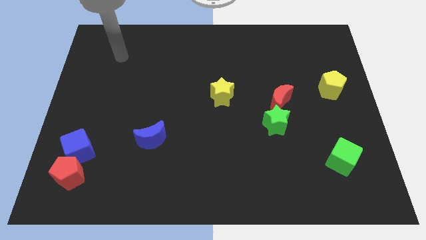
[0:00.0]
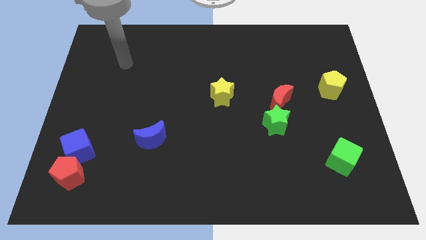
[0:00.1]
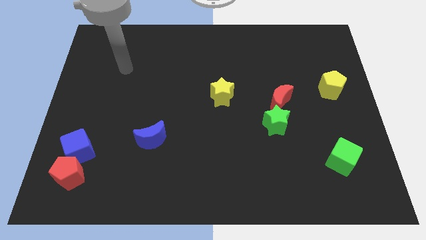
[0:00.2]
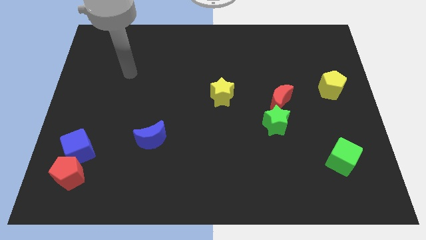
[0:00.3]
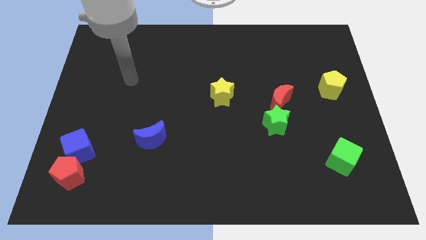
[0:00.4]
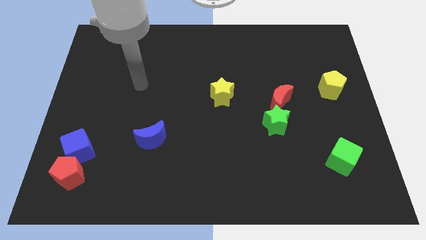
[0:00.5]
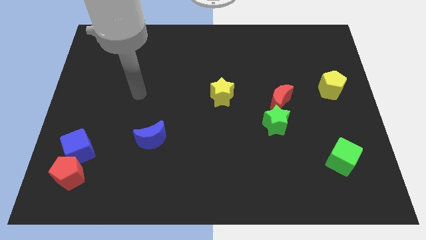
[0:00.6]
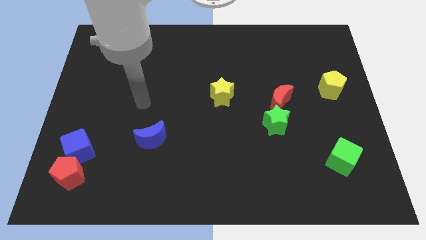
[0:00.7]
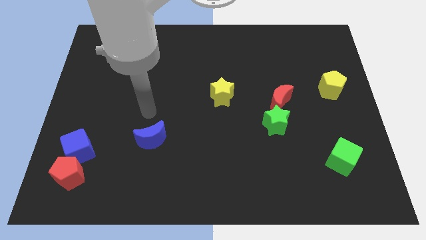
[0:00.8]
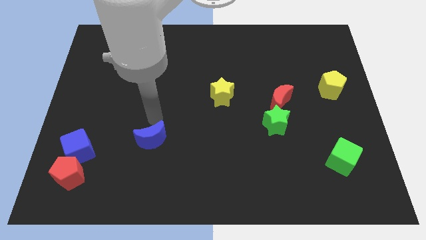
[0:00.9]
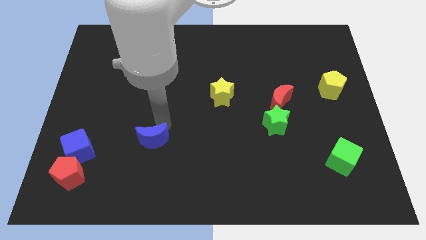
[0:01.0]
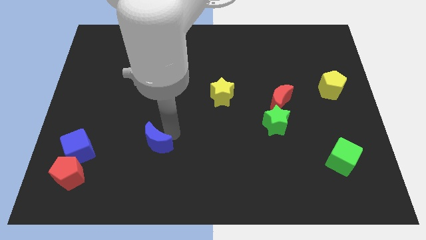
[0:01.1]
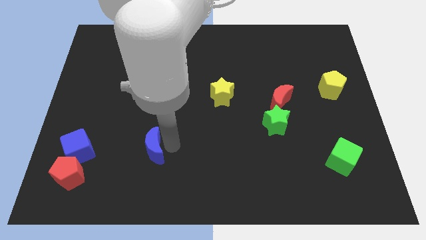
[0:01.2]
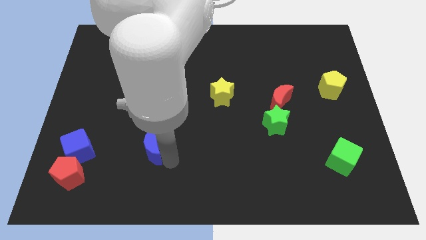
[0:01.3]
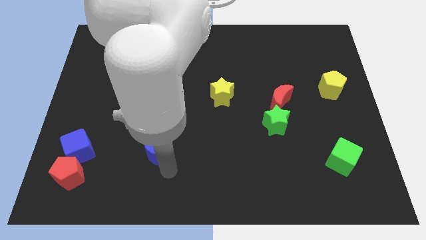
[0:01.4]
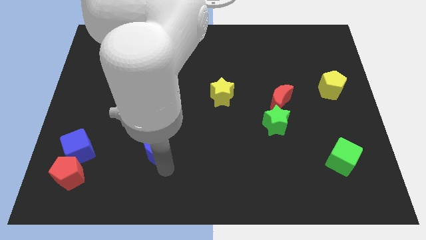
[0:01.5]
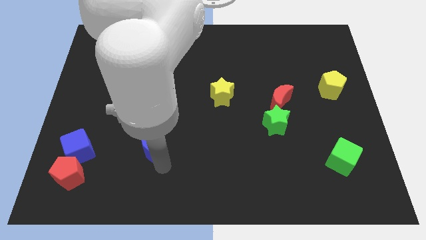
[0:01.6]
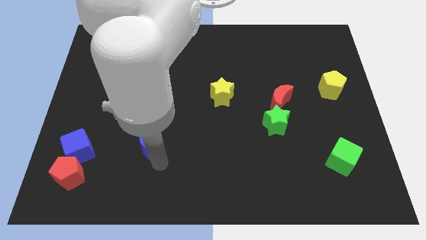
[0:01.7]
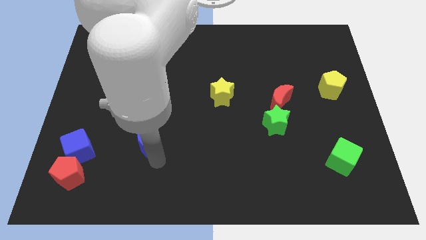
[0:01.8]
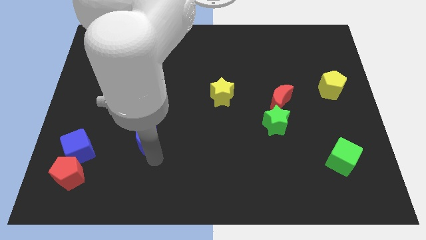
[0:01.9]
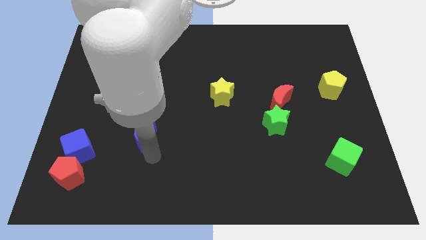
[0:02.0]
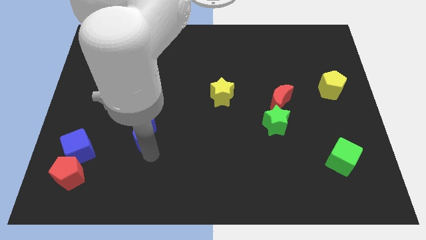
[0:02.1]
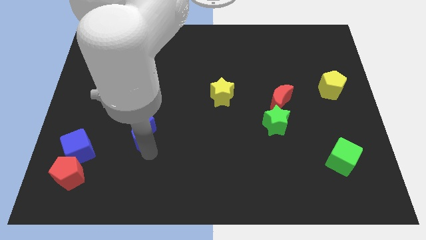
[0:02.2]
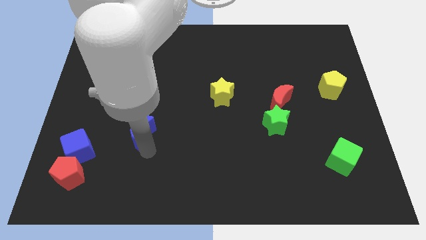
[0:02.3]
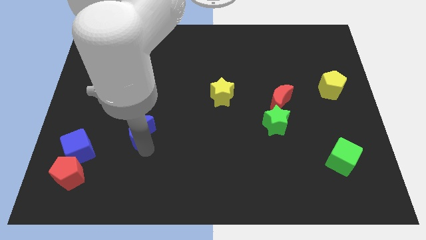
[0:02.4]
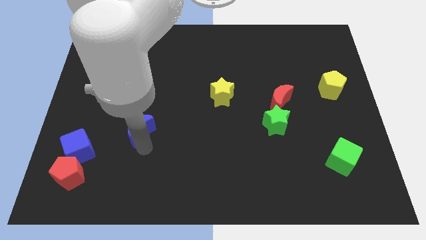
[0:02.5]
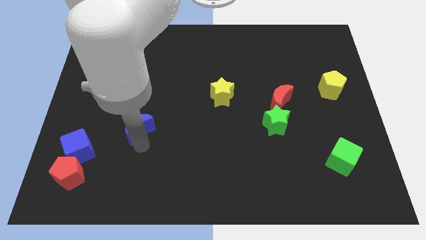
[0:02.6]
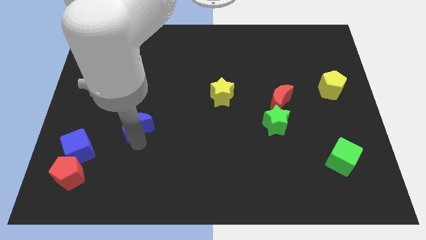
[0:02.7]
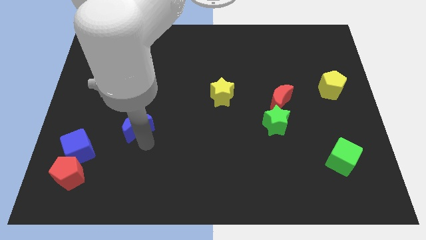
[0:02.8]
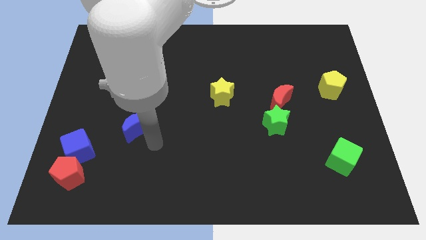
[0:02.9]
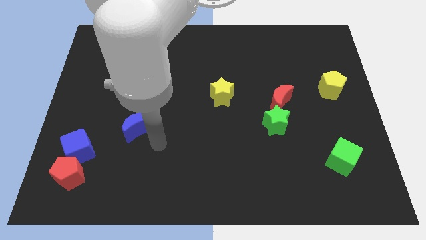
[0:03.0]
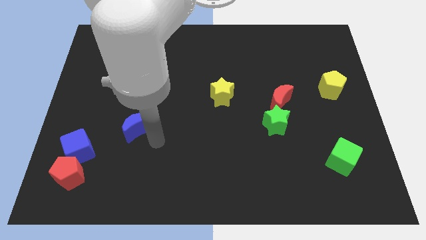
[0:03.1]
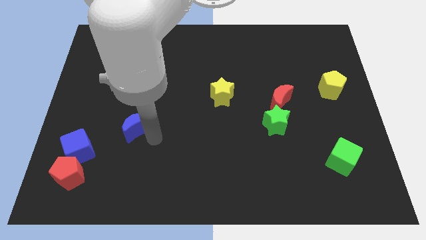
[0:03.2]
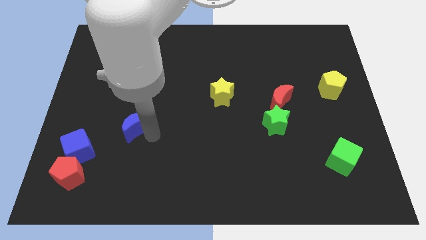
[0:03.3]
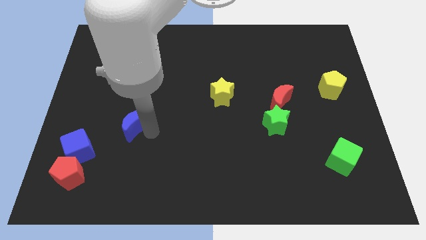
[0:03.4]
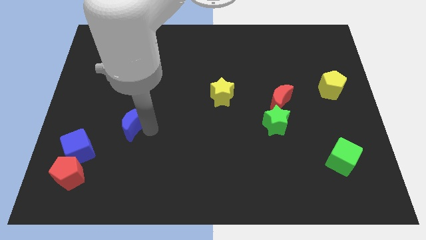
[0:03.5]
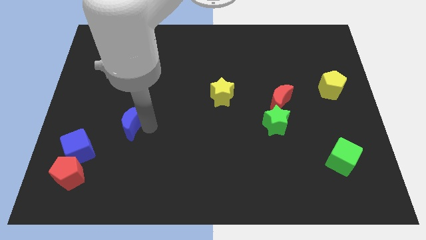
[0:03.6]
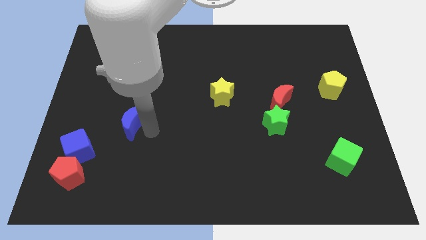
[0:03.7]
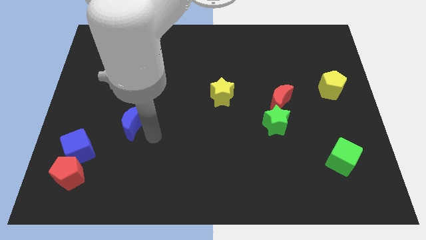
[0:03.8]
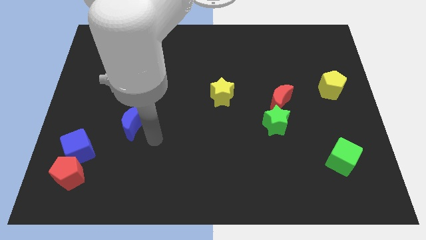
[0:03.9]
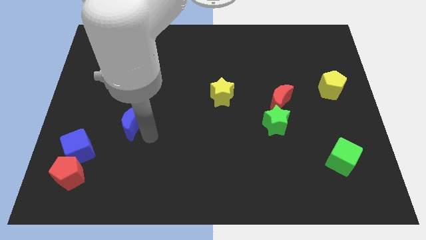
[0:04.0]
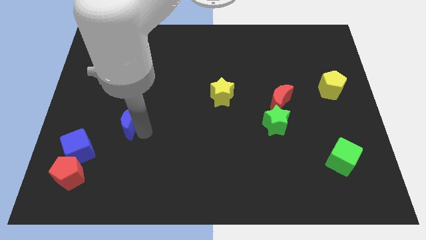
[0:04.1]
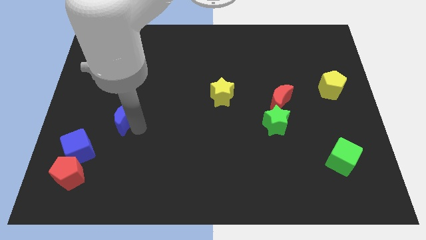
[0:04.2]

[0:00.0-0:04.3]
slightly move the blue moon diagonally upwards and left

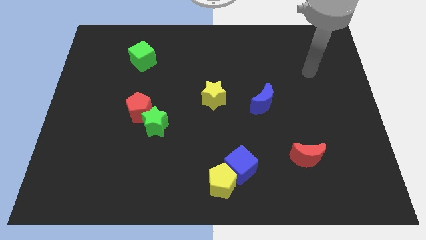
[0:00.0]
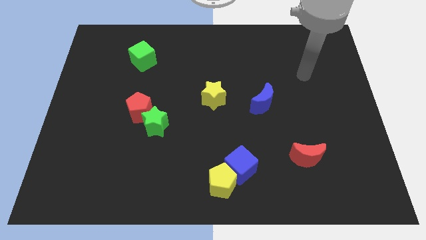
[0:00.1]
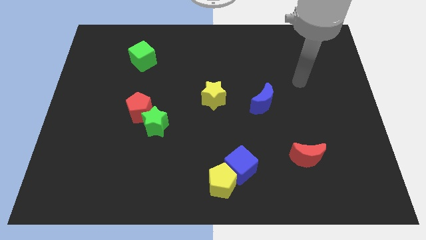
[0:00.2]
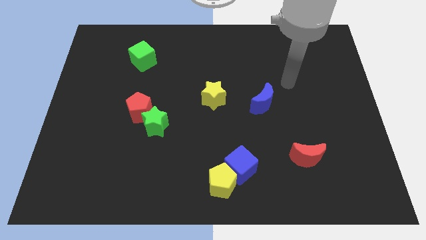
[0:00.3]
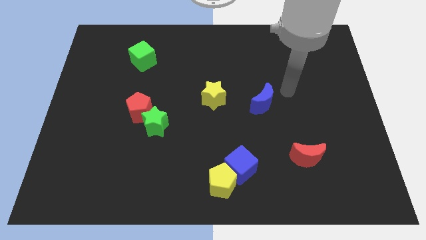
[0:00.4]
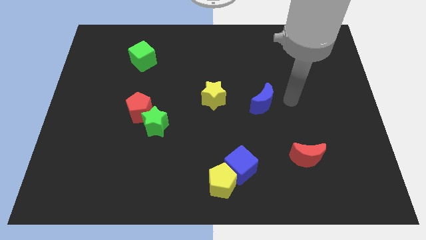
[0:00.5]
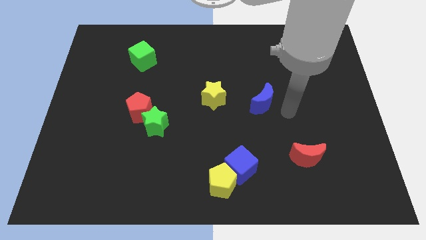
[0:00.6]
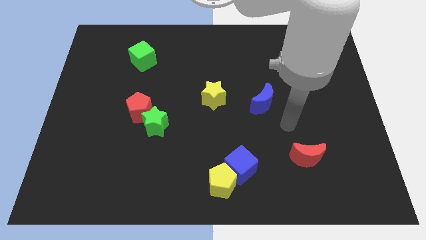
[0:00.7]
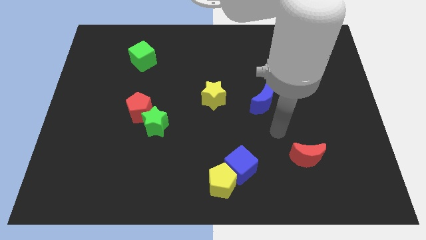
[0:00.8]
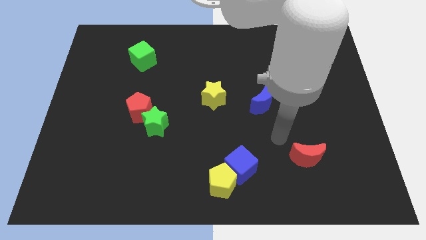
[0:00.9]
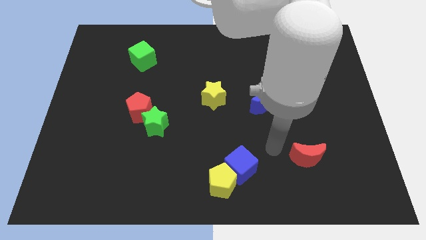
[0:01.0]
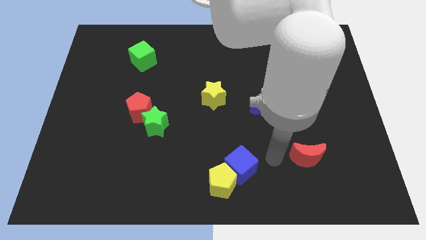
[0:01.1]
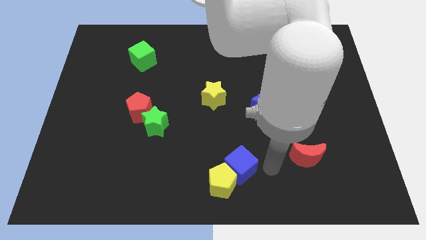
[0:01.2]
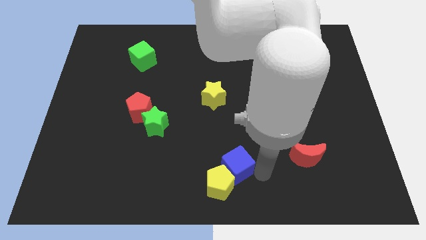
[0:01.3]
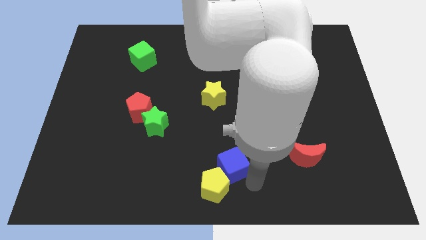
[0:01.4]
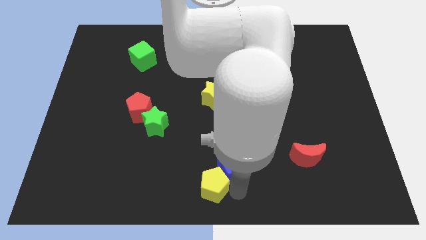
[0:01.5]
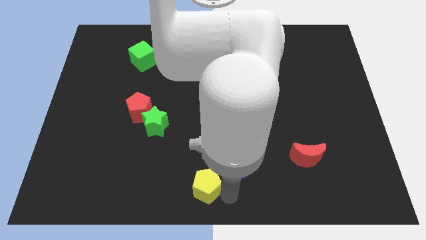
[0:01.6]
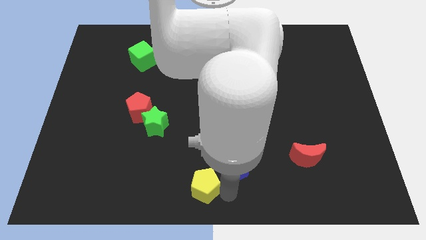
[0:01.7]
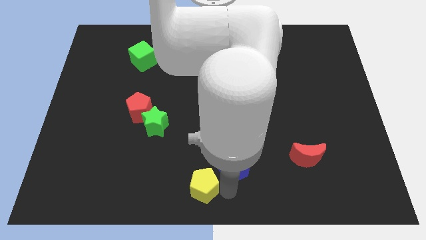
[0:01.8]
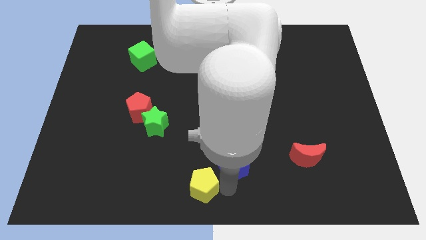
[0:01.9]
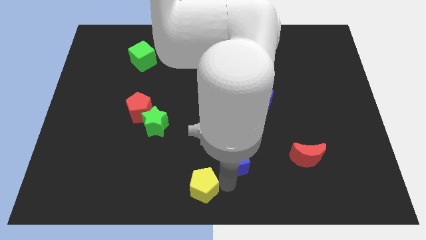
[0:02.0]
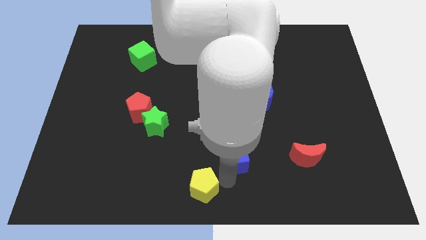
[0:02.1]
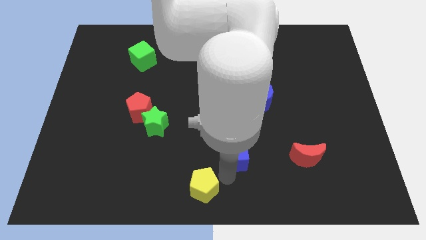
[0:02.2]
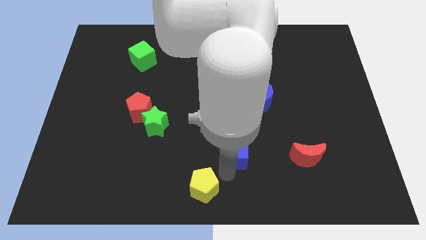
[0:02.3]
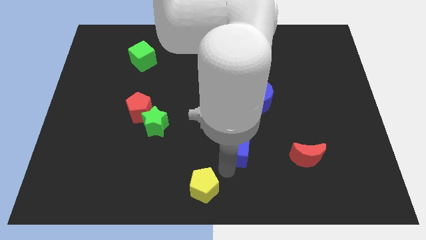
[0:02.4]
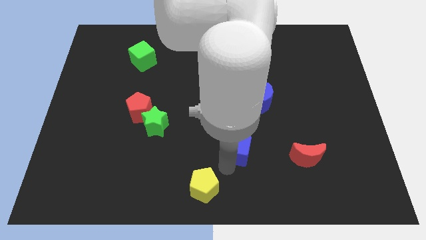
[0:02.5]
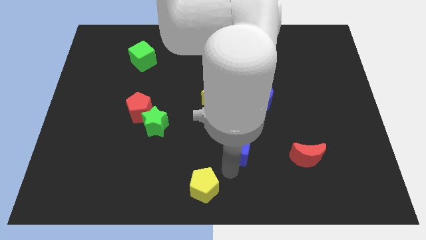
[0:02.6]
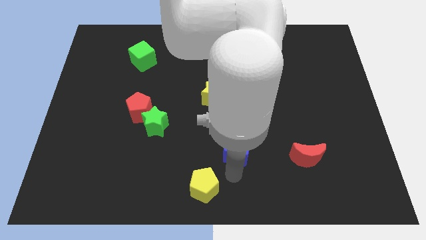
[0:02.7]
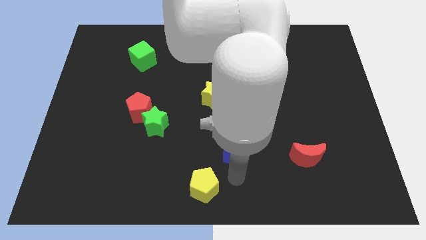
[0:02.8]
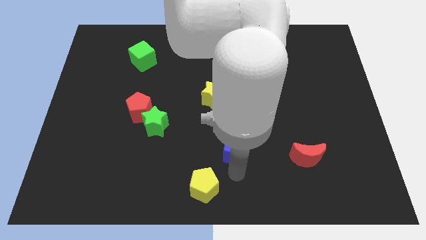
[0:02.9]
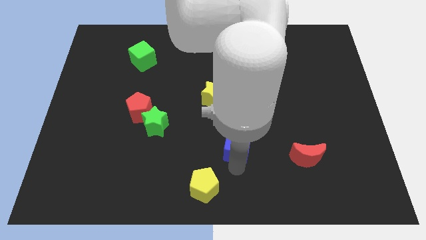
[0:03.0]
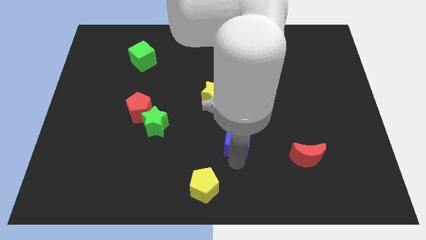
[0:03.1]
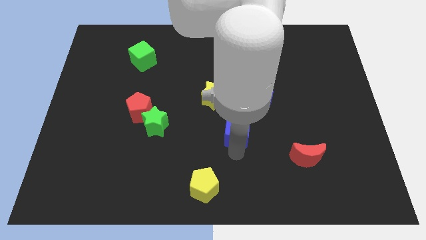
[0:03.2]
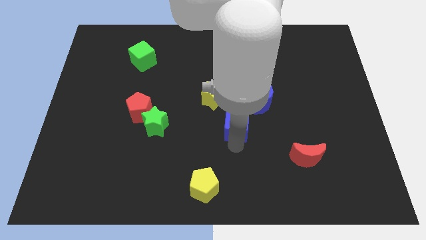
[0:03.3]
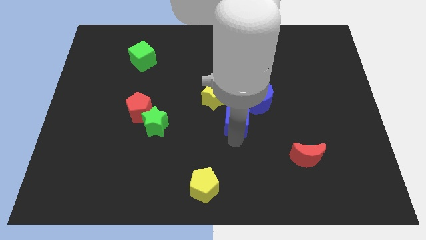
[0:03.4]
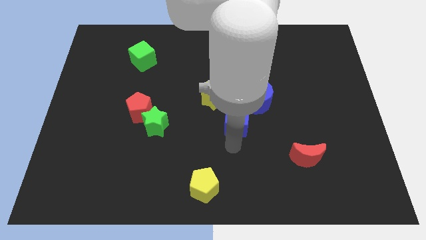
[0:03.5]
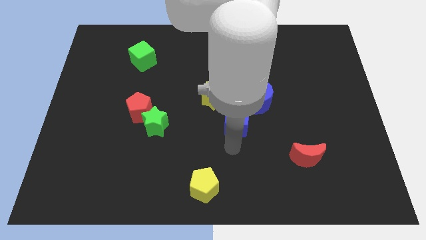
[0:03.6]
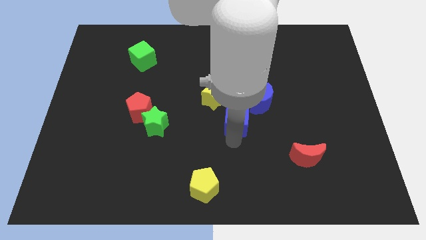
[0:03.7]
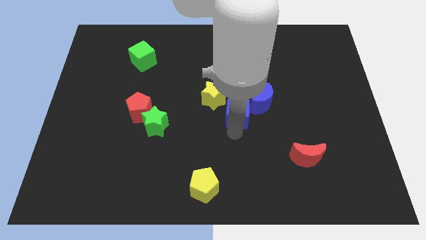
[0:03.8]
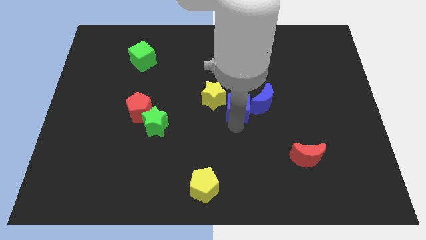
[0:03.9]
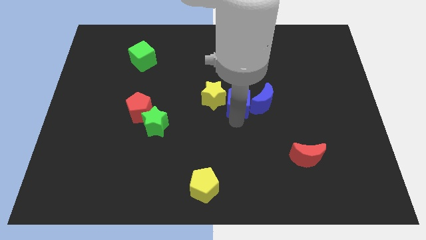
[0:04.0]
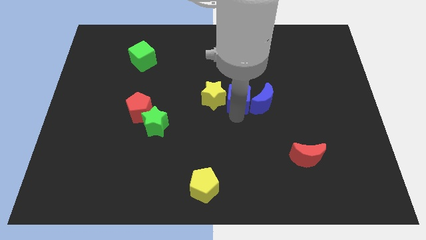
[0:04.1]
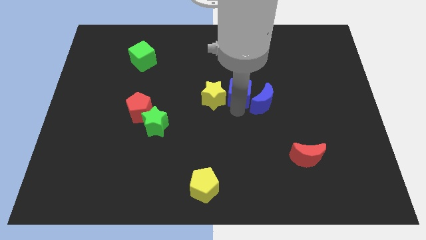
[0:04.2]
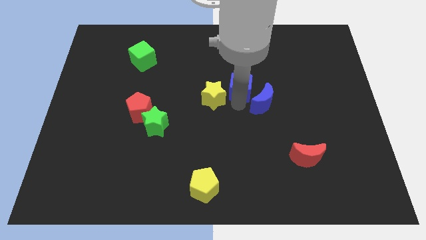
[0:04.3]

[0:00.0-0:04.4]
push the blue cube upwards
